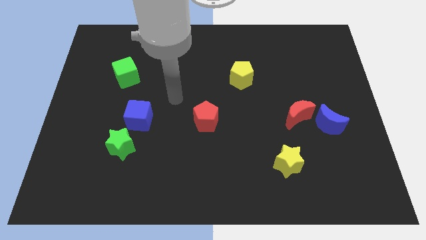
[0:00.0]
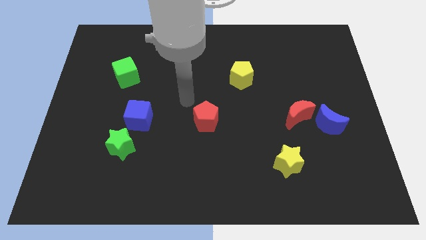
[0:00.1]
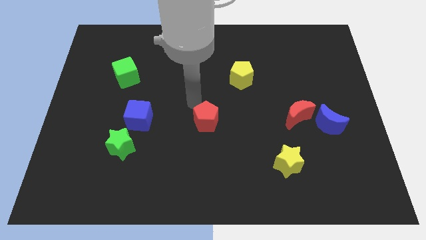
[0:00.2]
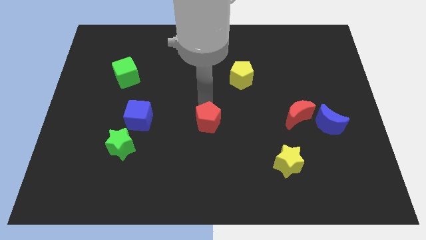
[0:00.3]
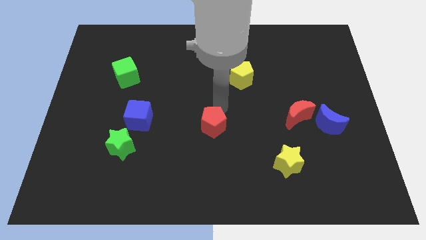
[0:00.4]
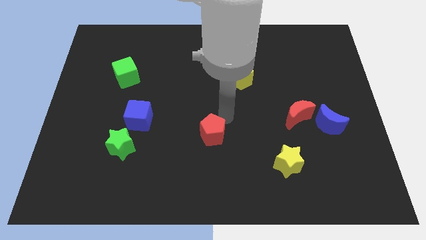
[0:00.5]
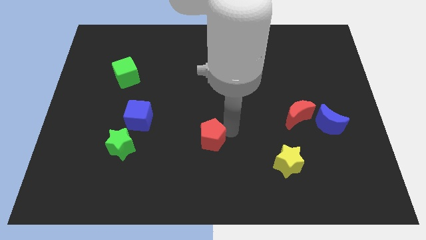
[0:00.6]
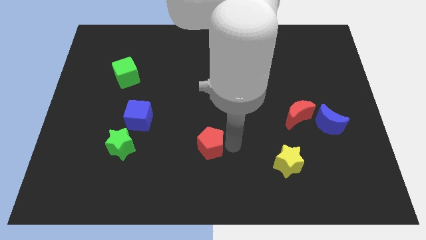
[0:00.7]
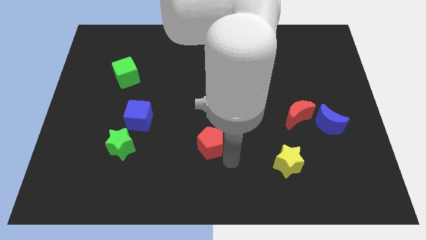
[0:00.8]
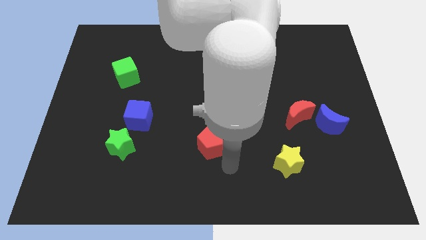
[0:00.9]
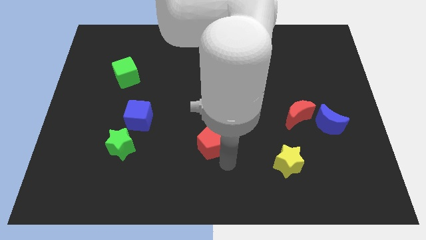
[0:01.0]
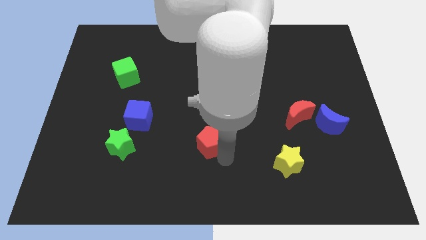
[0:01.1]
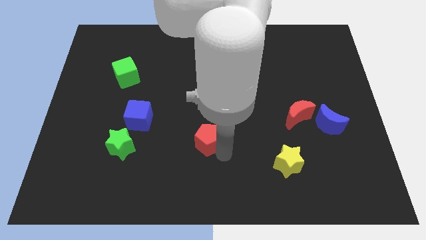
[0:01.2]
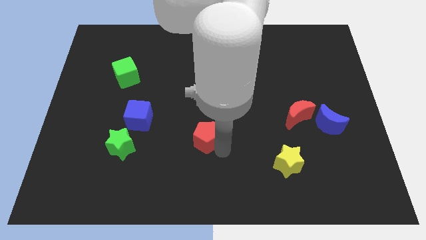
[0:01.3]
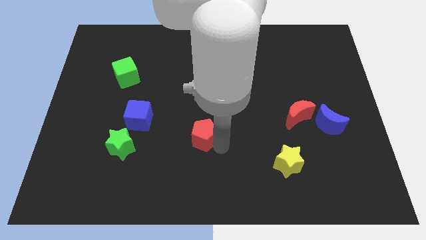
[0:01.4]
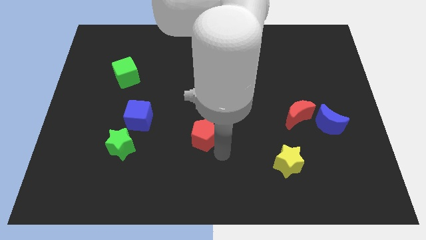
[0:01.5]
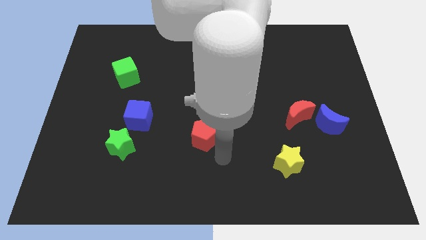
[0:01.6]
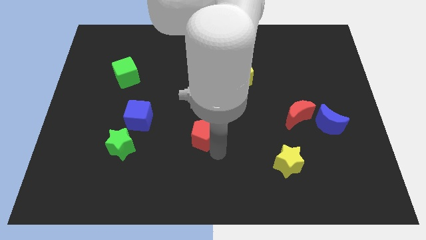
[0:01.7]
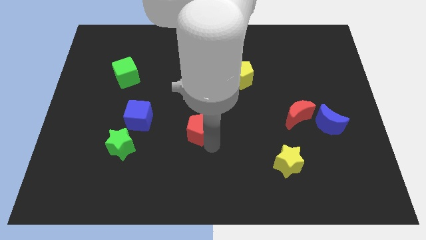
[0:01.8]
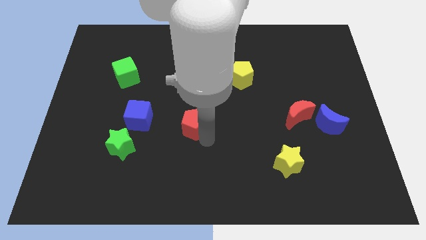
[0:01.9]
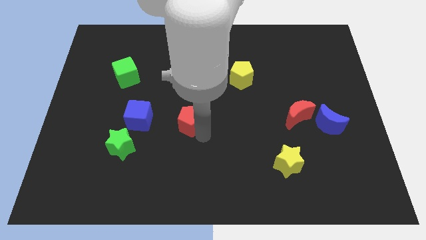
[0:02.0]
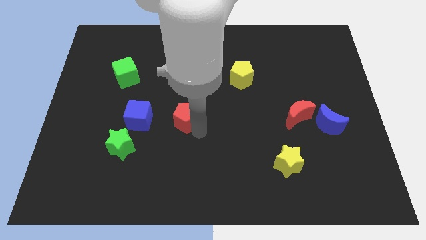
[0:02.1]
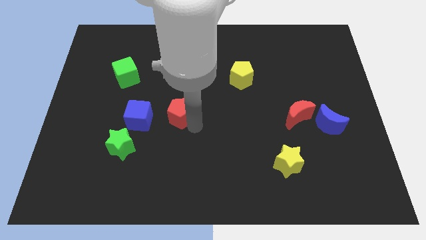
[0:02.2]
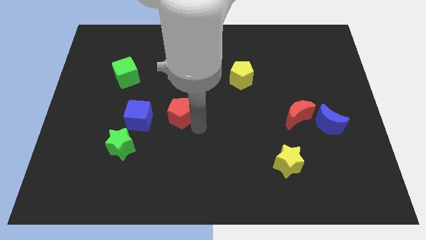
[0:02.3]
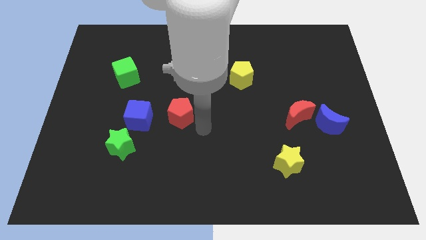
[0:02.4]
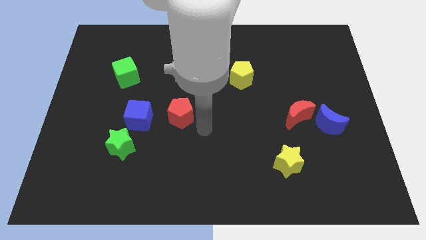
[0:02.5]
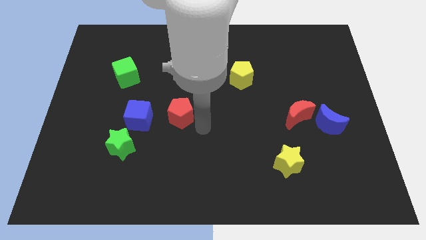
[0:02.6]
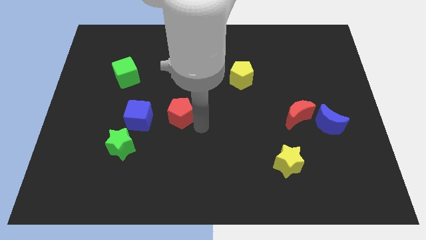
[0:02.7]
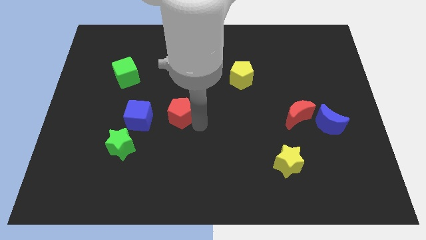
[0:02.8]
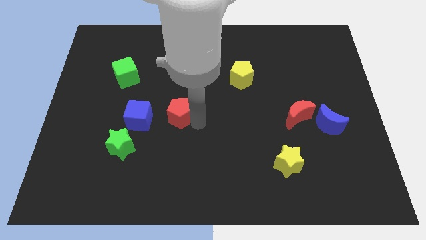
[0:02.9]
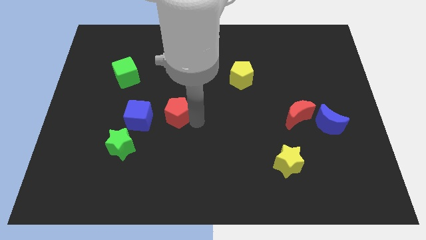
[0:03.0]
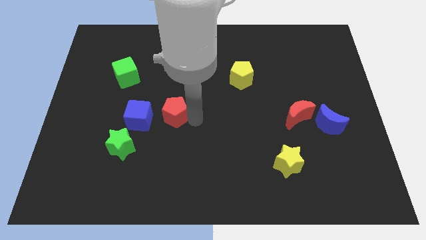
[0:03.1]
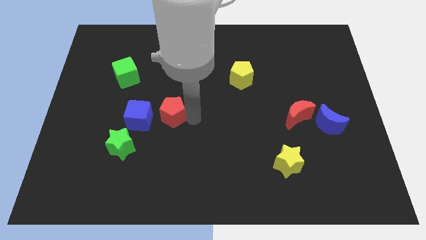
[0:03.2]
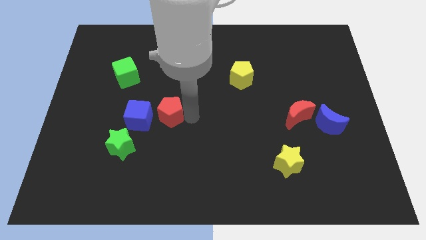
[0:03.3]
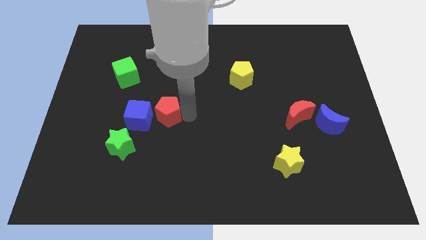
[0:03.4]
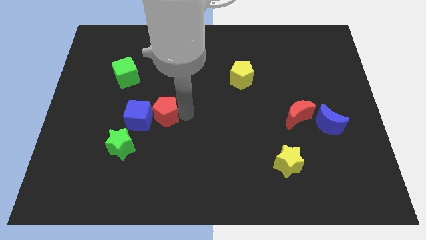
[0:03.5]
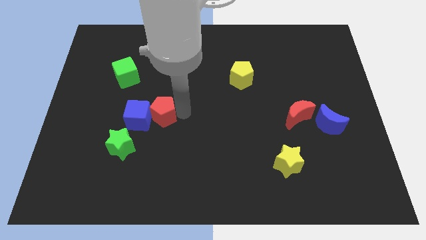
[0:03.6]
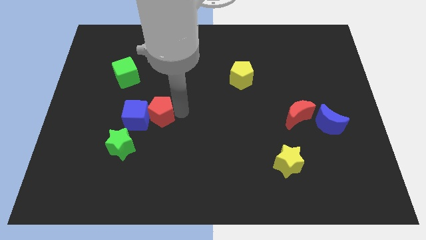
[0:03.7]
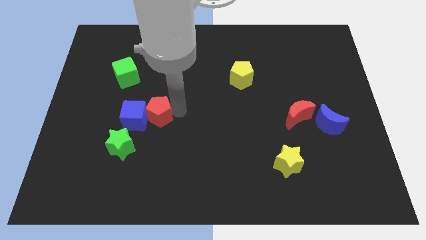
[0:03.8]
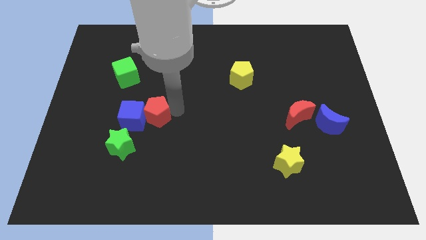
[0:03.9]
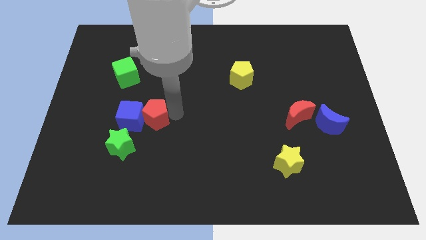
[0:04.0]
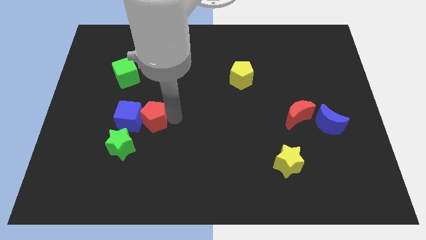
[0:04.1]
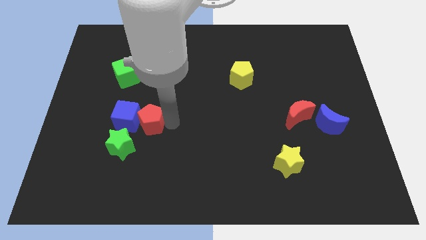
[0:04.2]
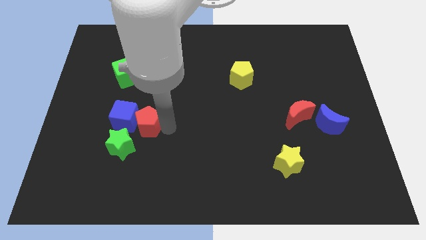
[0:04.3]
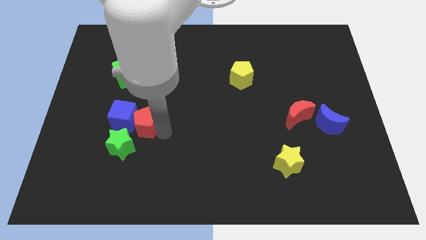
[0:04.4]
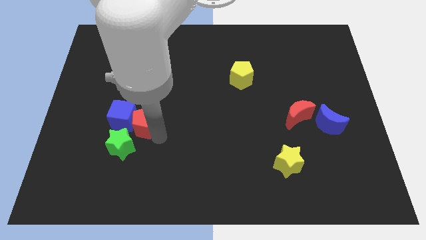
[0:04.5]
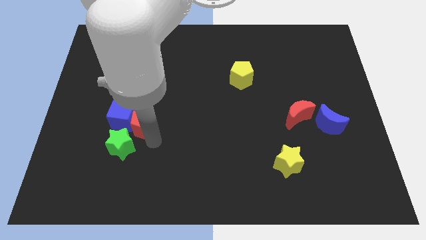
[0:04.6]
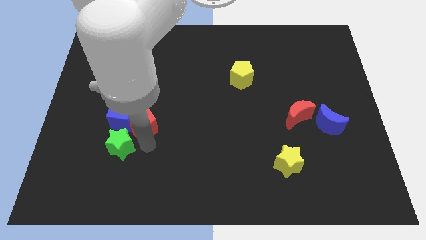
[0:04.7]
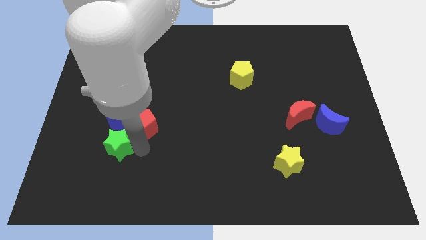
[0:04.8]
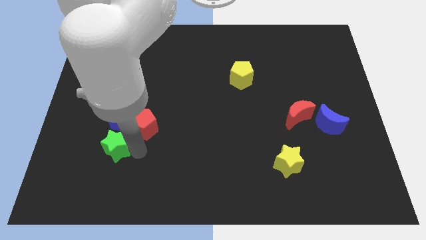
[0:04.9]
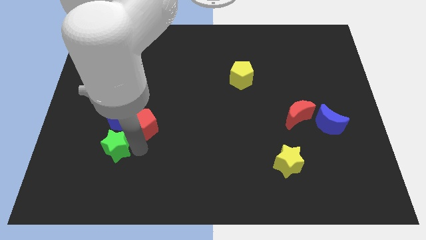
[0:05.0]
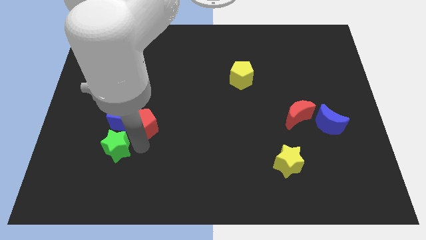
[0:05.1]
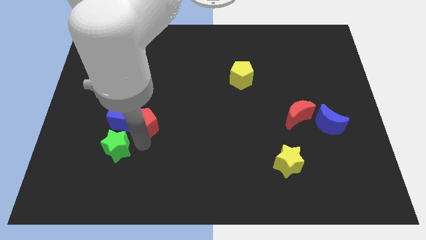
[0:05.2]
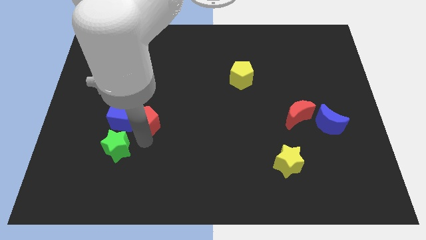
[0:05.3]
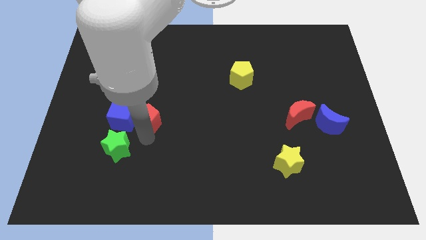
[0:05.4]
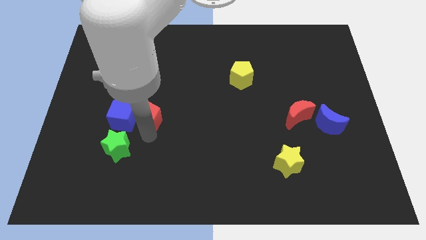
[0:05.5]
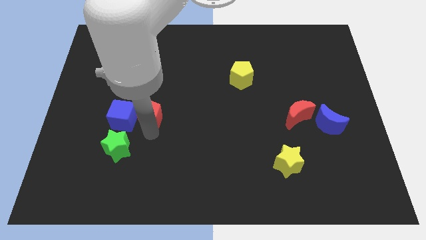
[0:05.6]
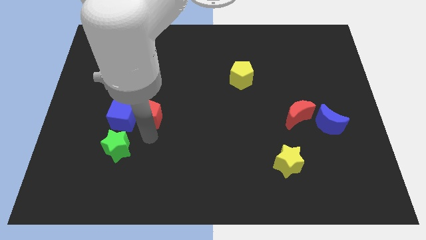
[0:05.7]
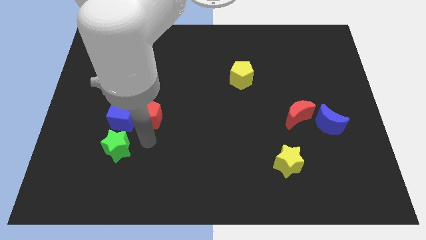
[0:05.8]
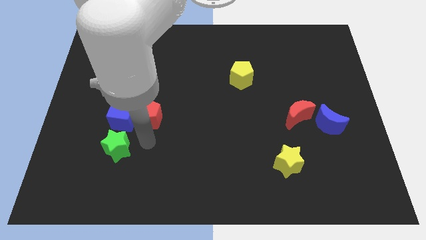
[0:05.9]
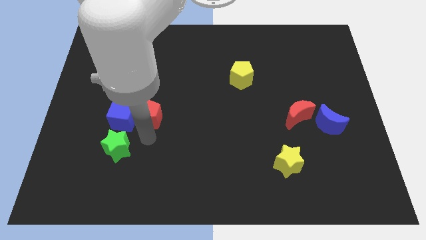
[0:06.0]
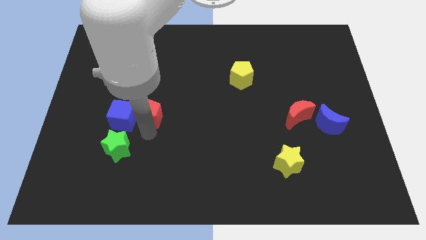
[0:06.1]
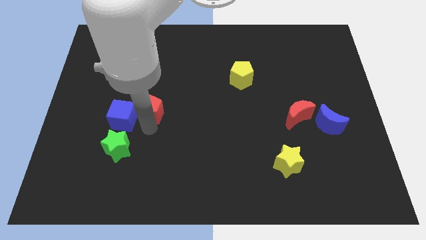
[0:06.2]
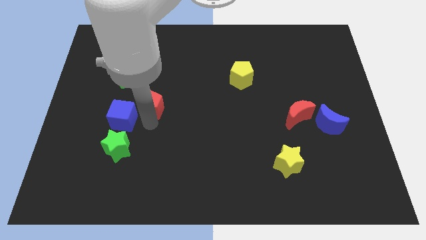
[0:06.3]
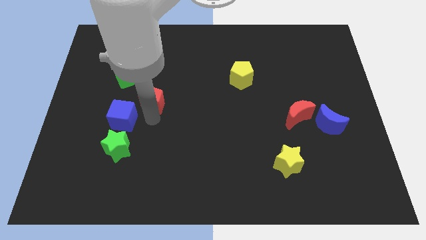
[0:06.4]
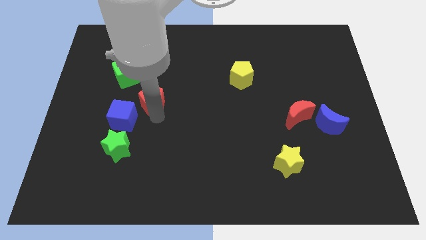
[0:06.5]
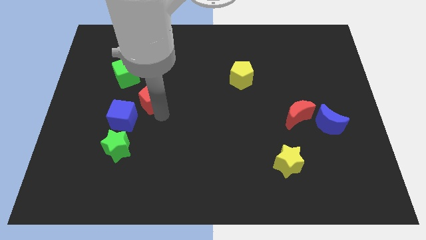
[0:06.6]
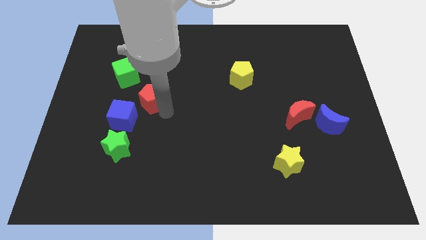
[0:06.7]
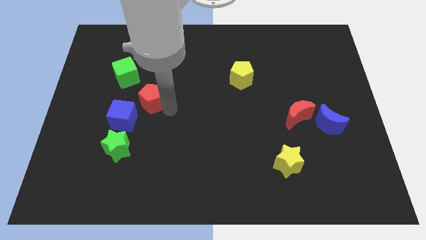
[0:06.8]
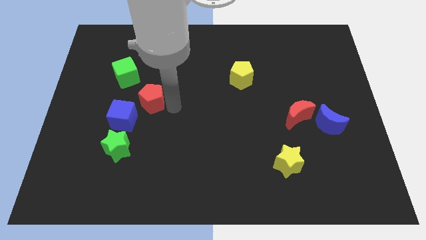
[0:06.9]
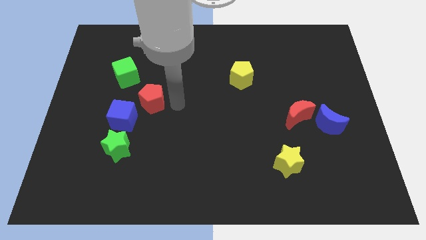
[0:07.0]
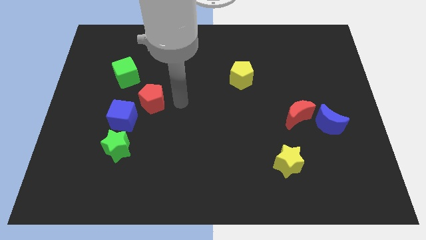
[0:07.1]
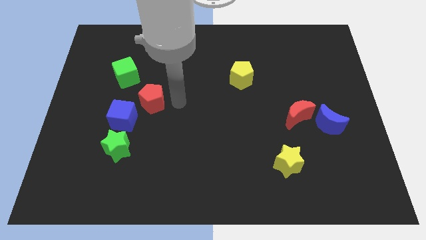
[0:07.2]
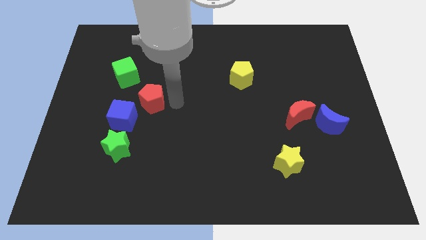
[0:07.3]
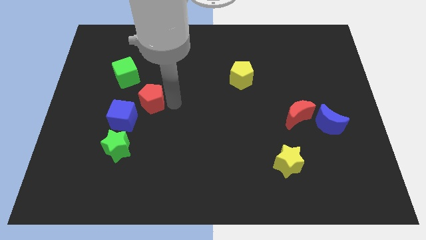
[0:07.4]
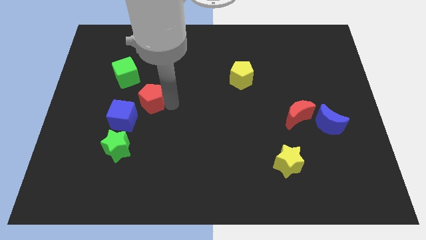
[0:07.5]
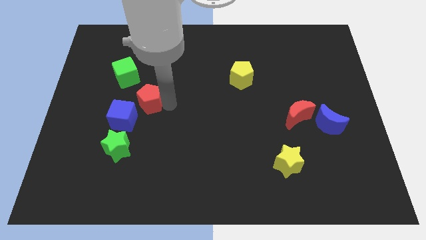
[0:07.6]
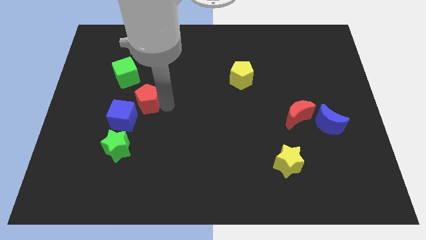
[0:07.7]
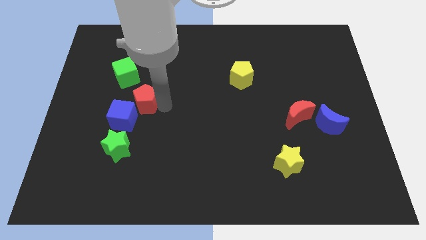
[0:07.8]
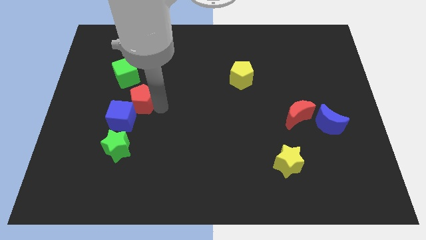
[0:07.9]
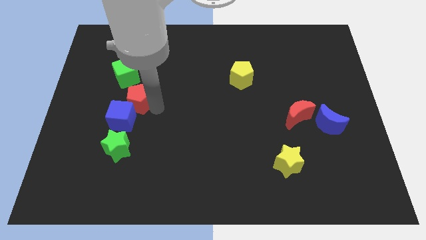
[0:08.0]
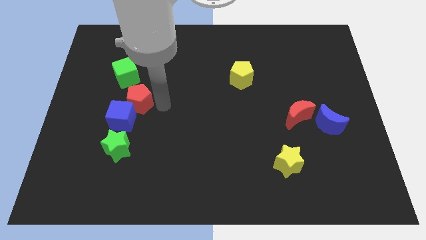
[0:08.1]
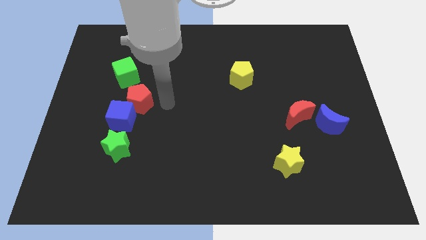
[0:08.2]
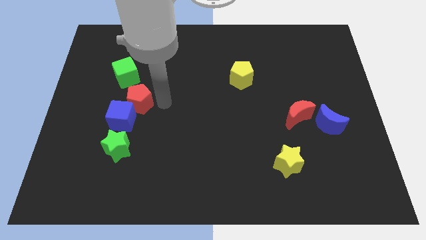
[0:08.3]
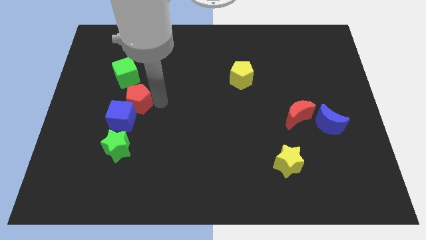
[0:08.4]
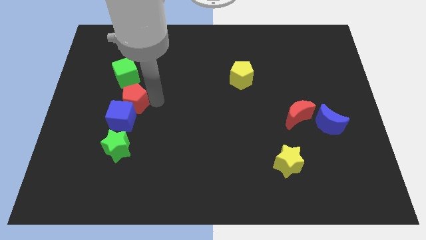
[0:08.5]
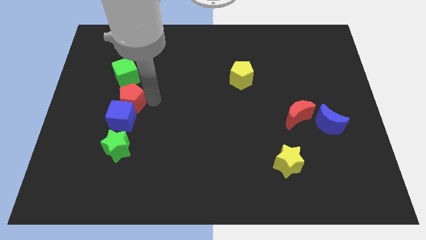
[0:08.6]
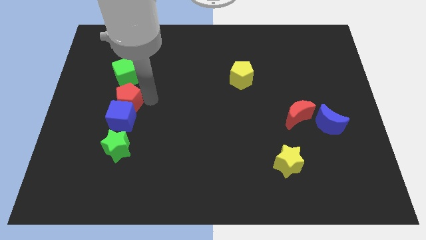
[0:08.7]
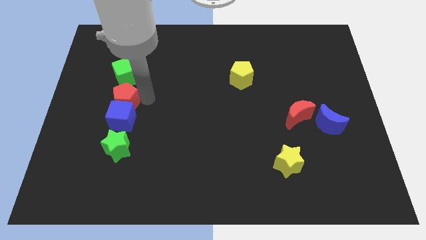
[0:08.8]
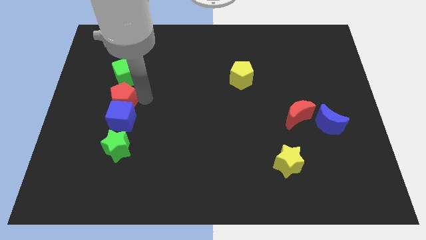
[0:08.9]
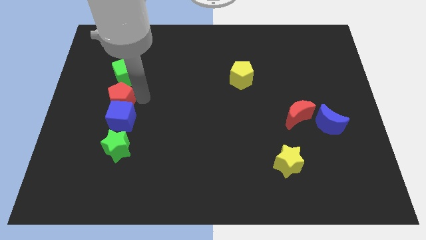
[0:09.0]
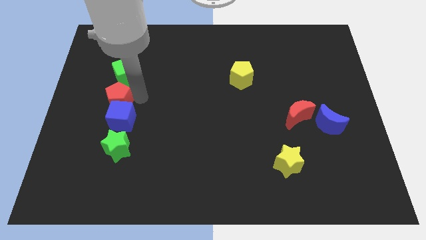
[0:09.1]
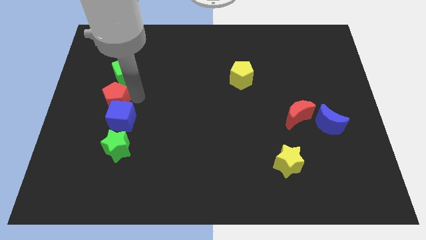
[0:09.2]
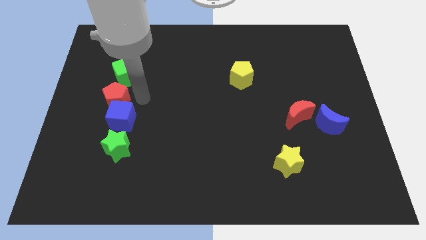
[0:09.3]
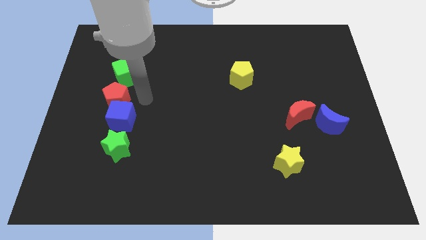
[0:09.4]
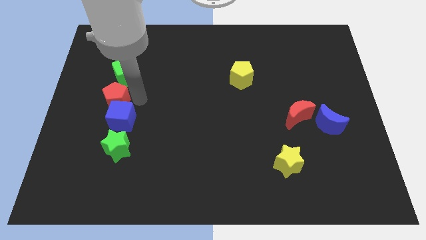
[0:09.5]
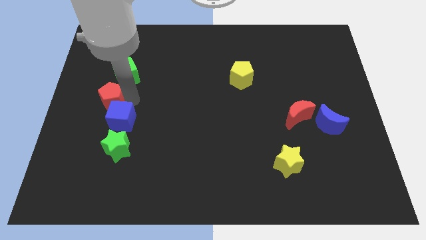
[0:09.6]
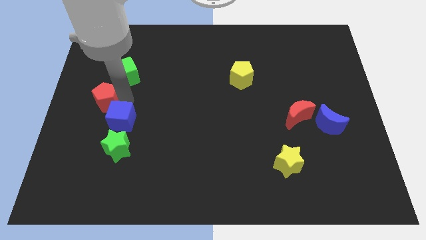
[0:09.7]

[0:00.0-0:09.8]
put the red pentagon to the center left
